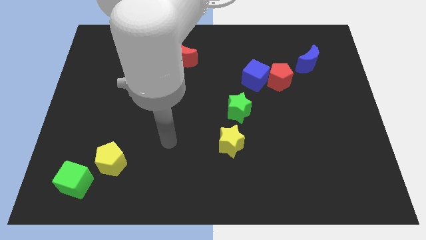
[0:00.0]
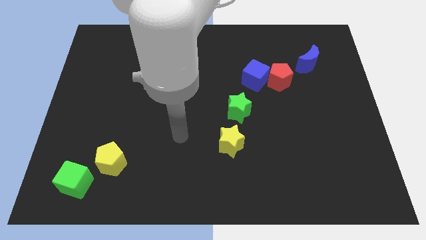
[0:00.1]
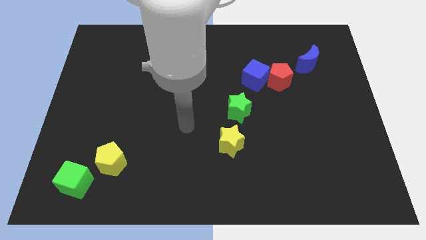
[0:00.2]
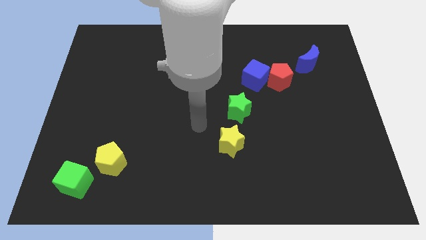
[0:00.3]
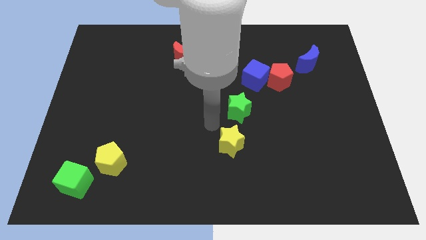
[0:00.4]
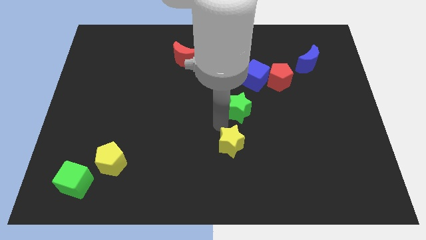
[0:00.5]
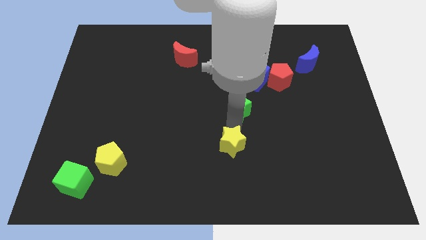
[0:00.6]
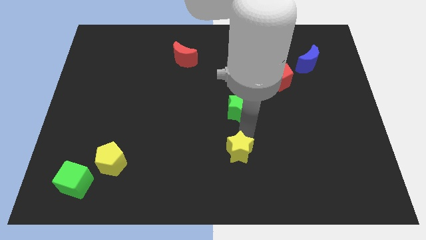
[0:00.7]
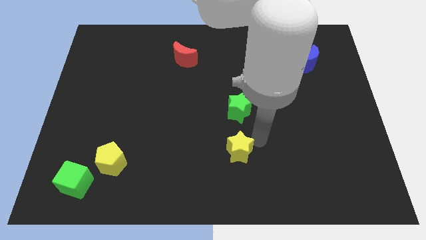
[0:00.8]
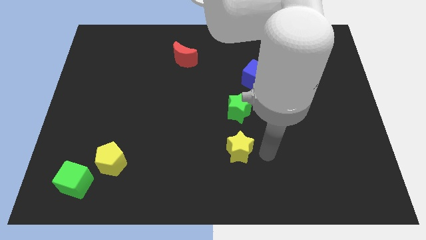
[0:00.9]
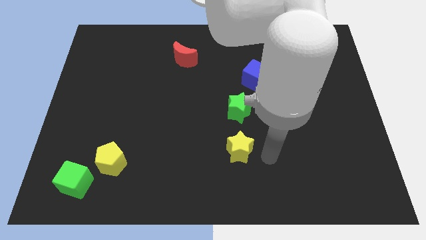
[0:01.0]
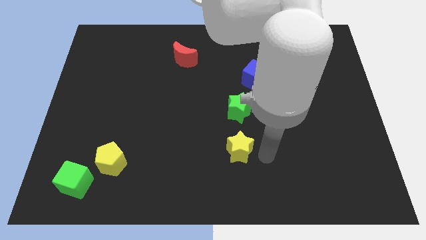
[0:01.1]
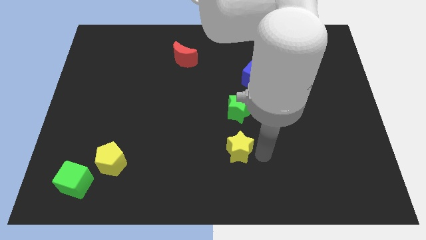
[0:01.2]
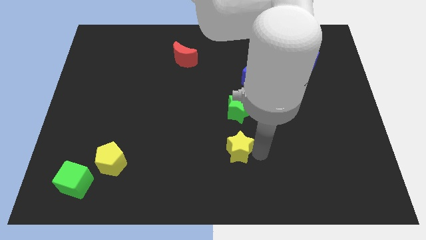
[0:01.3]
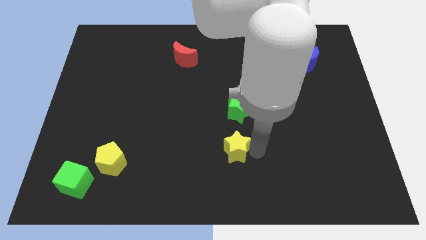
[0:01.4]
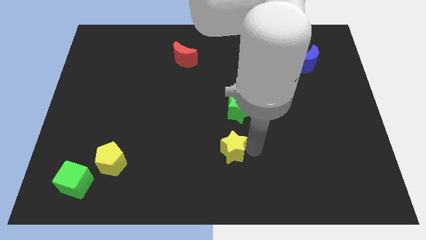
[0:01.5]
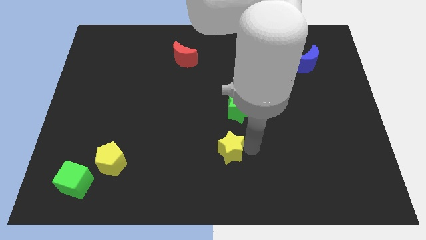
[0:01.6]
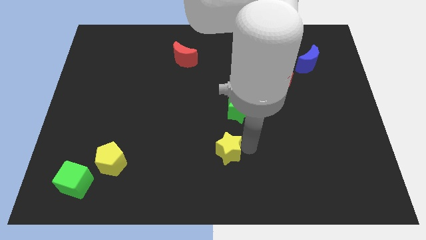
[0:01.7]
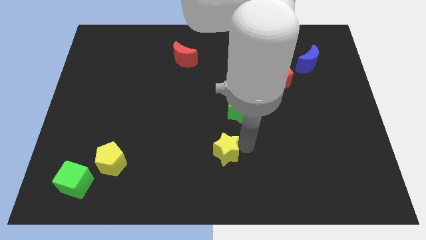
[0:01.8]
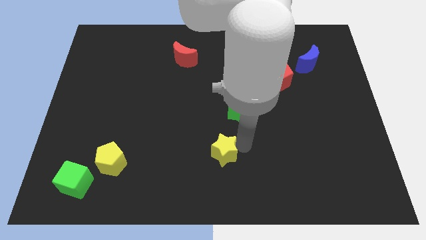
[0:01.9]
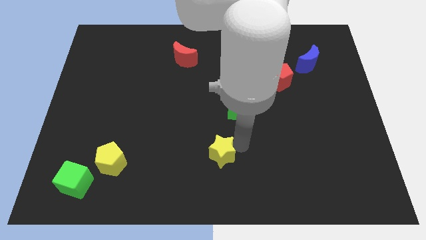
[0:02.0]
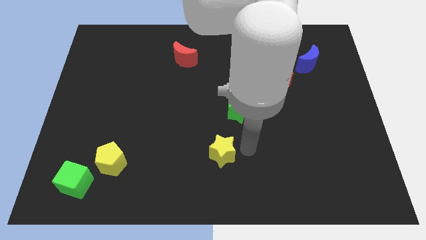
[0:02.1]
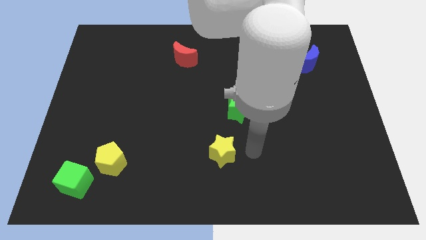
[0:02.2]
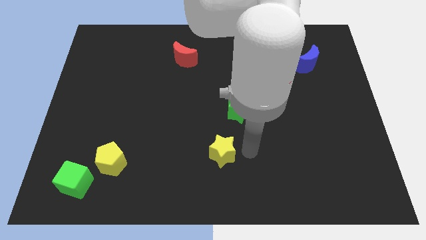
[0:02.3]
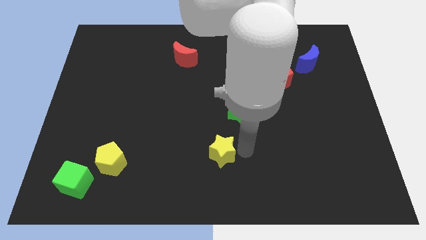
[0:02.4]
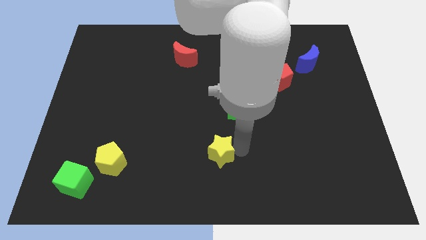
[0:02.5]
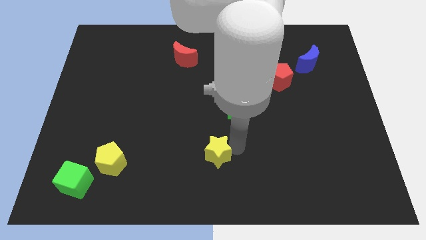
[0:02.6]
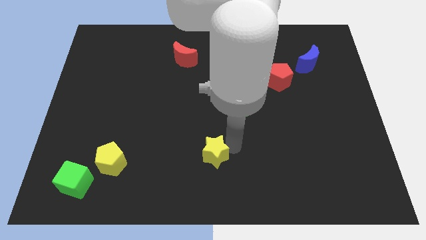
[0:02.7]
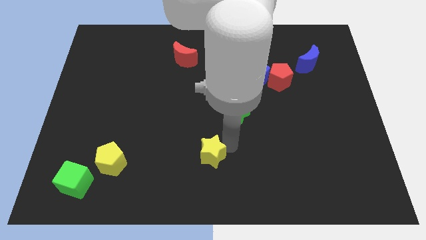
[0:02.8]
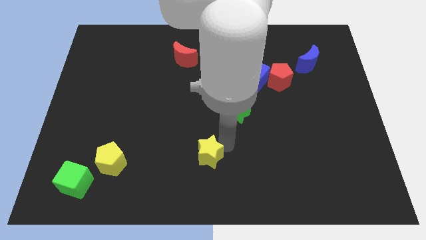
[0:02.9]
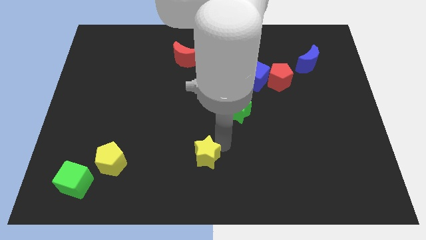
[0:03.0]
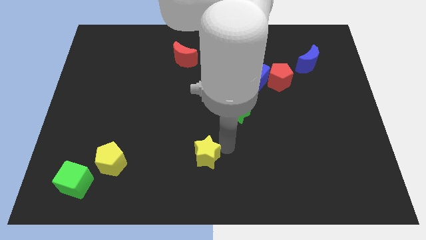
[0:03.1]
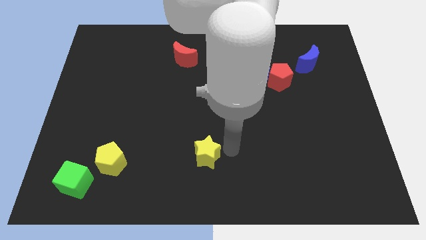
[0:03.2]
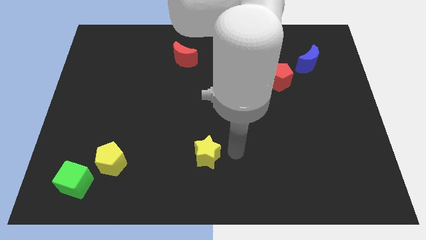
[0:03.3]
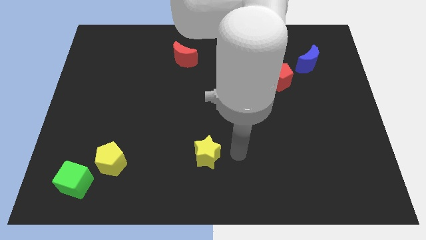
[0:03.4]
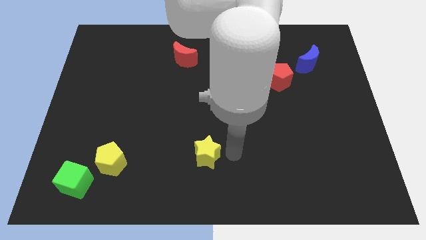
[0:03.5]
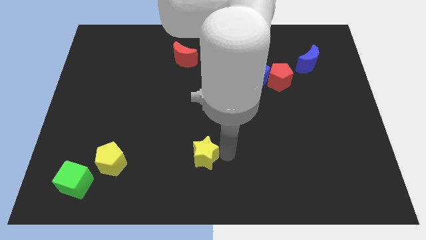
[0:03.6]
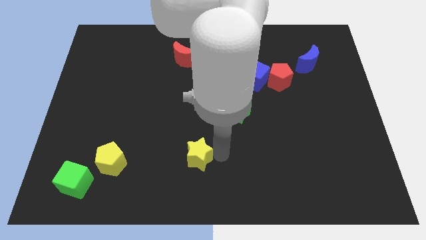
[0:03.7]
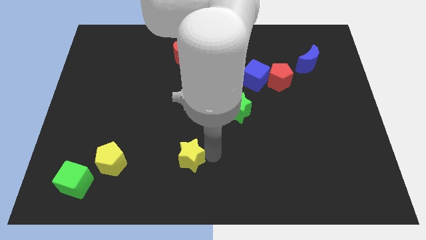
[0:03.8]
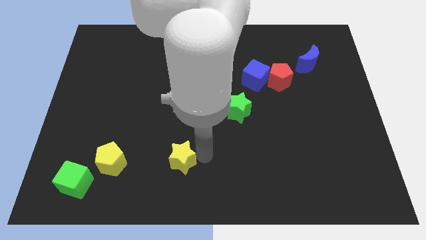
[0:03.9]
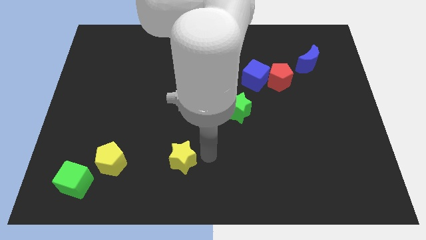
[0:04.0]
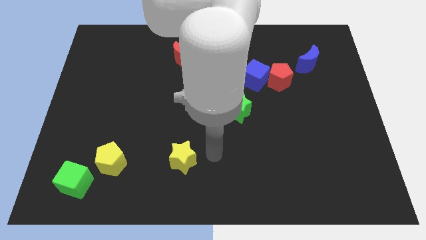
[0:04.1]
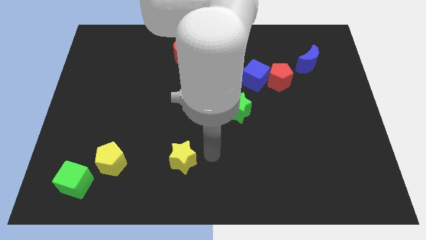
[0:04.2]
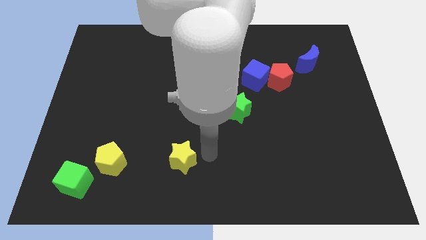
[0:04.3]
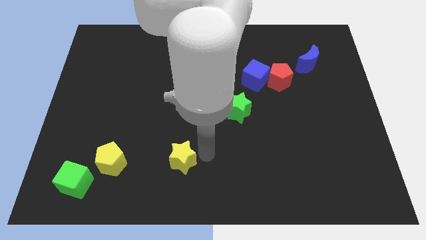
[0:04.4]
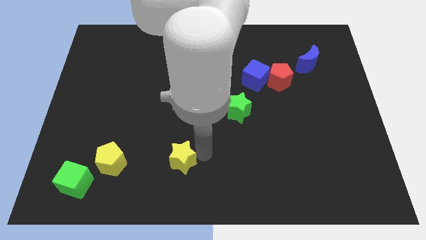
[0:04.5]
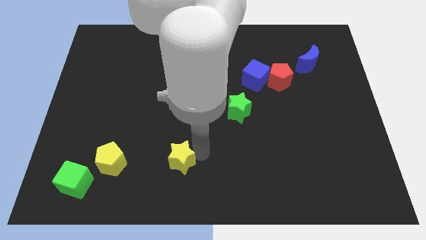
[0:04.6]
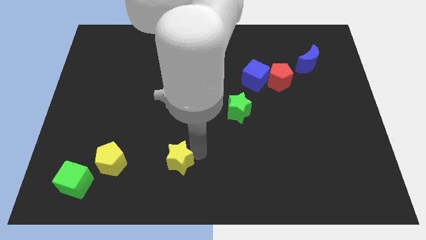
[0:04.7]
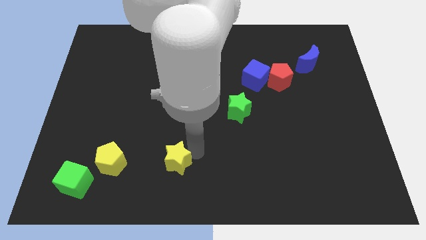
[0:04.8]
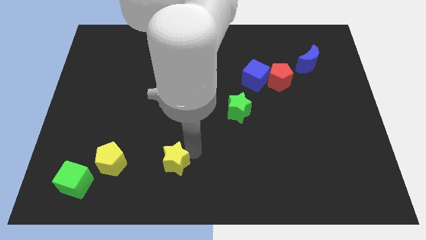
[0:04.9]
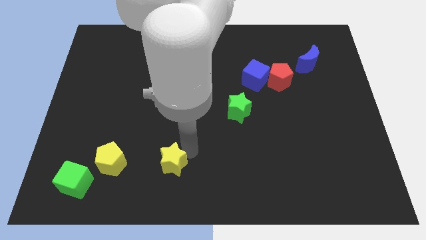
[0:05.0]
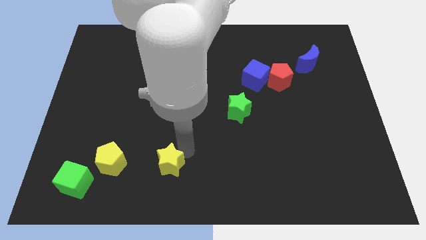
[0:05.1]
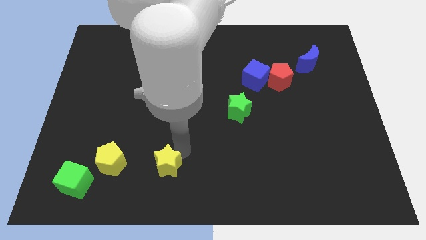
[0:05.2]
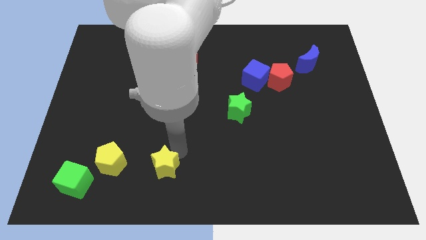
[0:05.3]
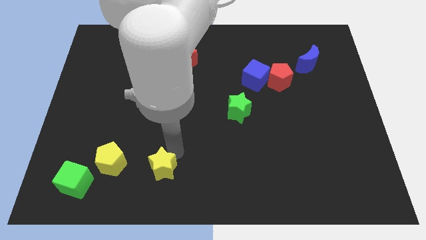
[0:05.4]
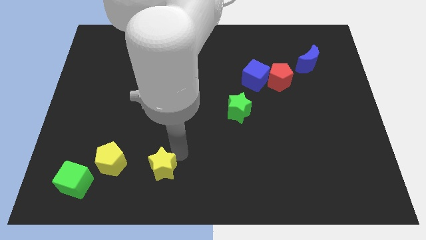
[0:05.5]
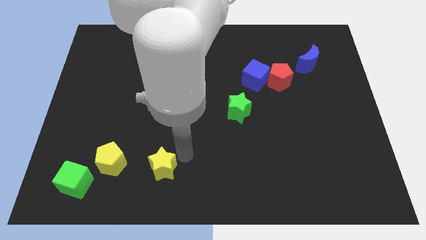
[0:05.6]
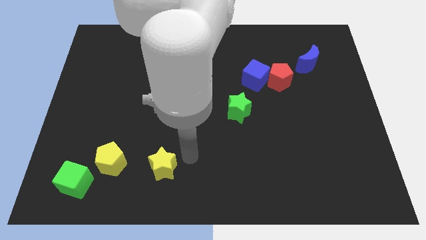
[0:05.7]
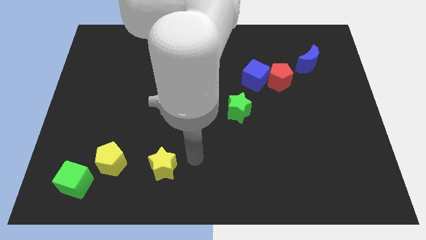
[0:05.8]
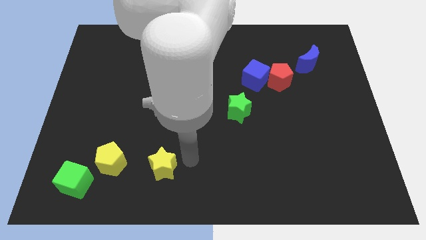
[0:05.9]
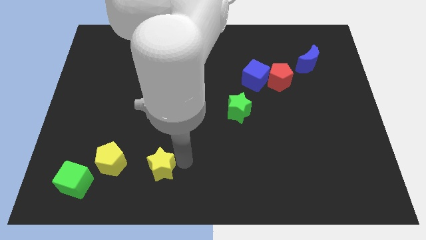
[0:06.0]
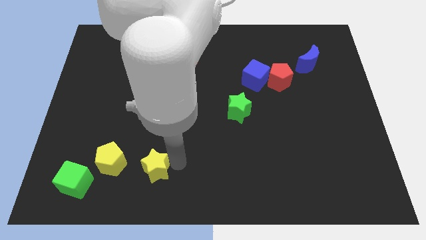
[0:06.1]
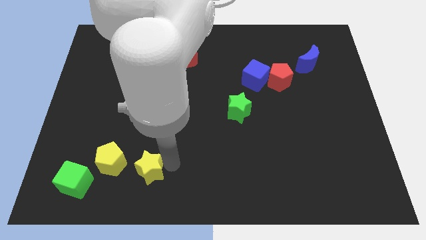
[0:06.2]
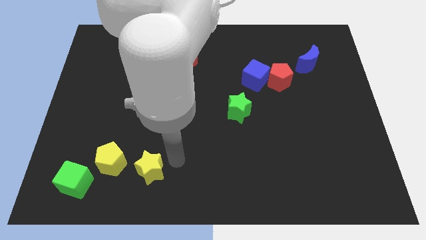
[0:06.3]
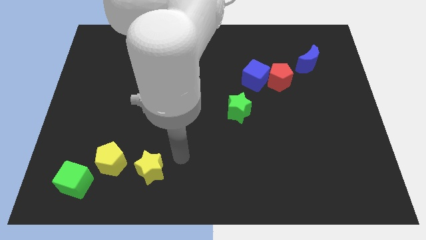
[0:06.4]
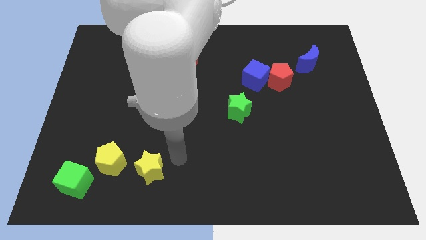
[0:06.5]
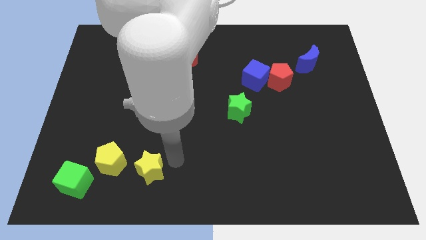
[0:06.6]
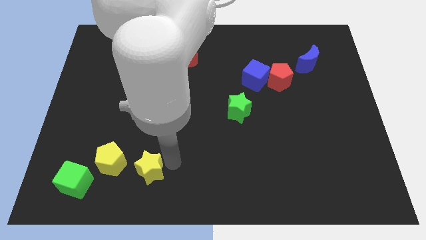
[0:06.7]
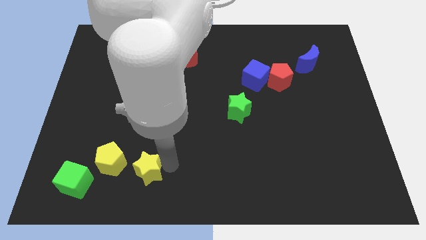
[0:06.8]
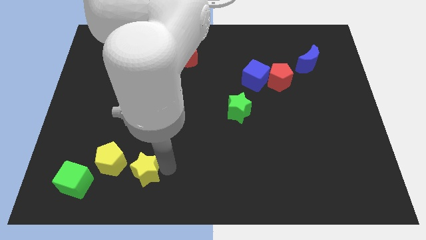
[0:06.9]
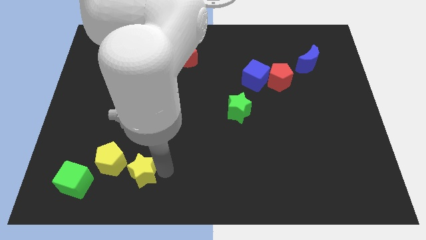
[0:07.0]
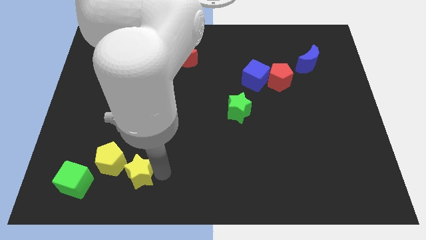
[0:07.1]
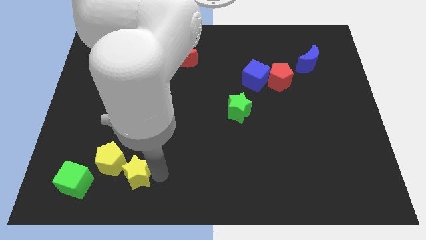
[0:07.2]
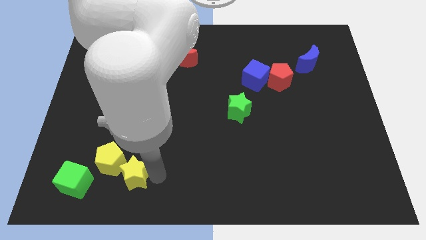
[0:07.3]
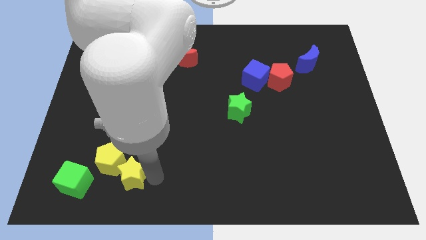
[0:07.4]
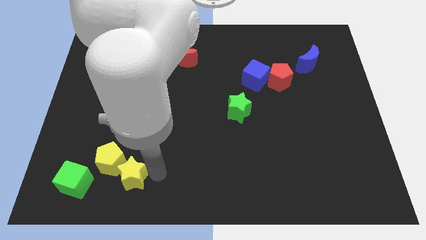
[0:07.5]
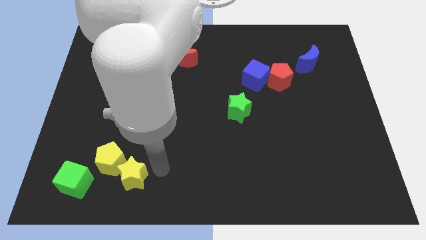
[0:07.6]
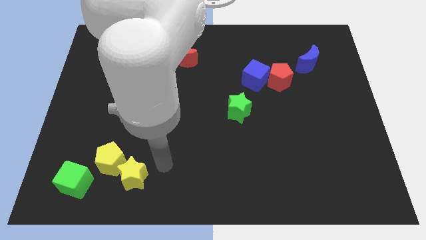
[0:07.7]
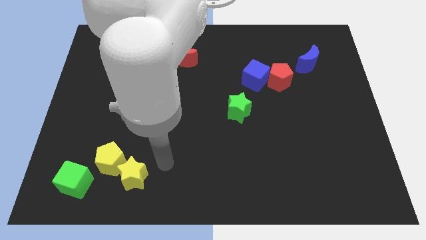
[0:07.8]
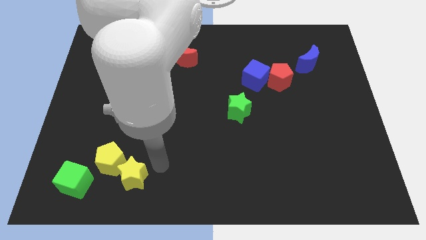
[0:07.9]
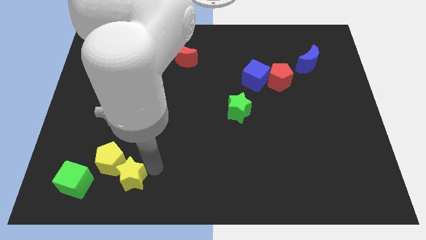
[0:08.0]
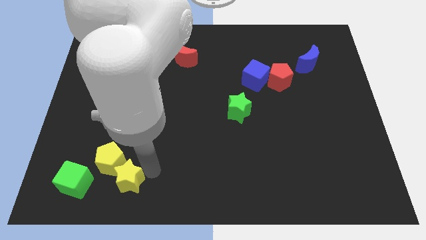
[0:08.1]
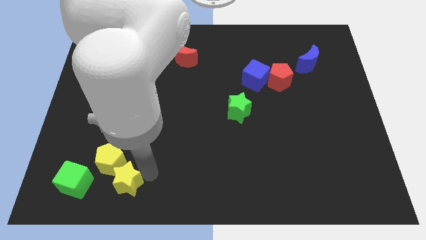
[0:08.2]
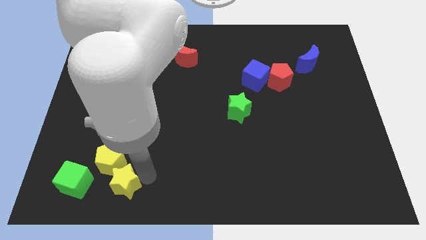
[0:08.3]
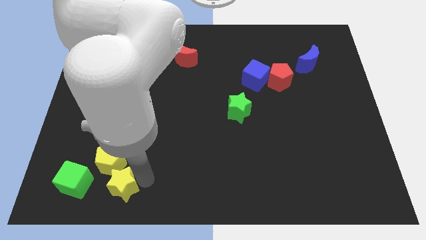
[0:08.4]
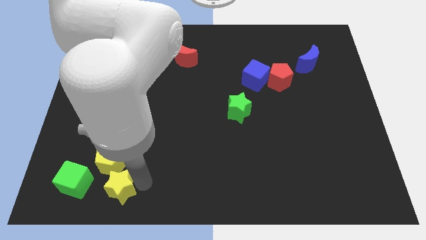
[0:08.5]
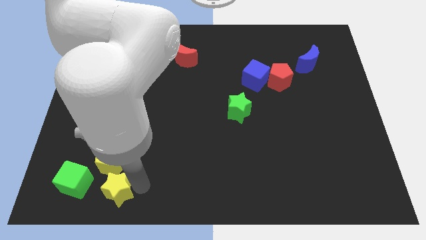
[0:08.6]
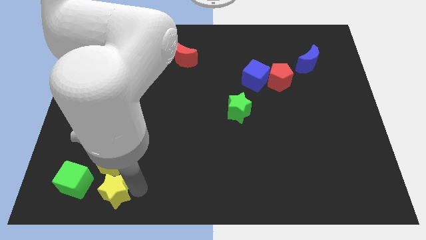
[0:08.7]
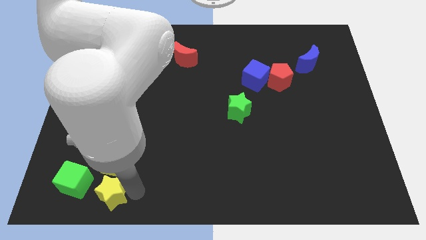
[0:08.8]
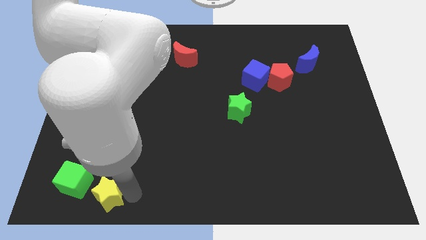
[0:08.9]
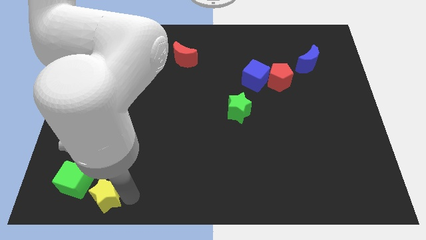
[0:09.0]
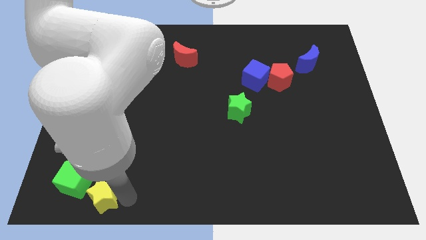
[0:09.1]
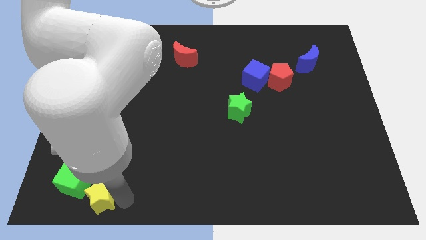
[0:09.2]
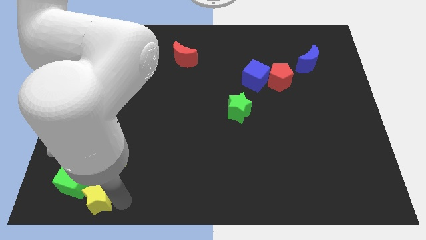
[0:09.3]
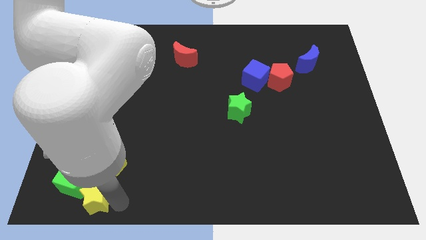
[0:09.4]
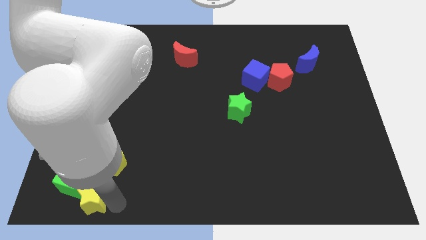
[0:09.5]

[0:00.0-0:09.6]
push the yellow star to the green cube
